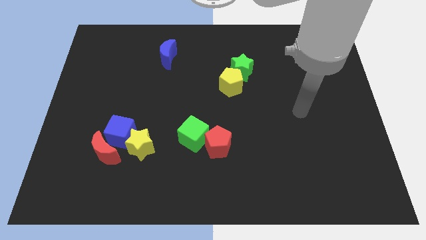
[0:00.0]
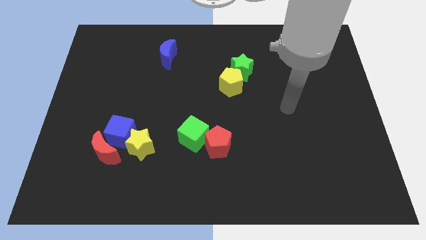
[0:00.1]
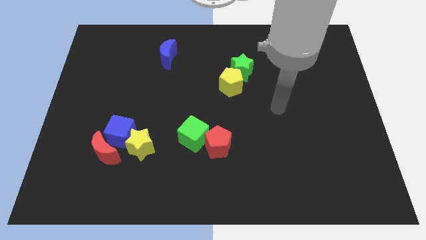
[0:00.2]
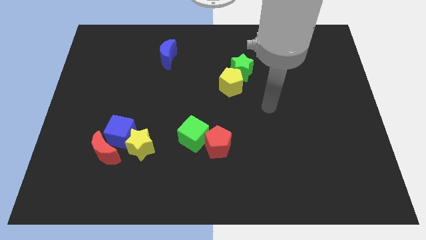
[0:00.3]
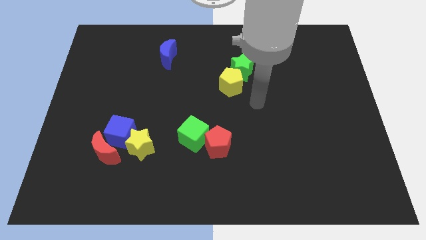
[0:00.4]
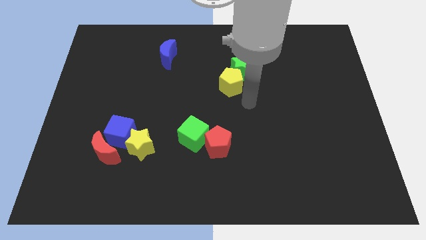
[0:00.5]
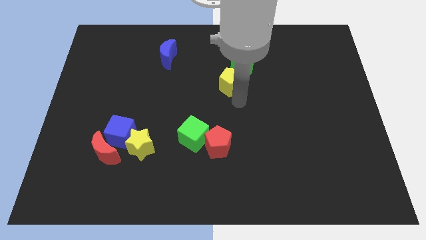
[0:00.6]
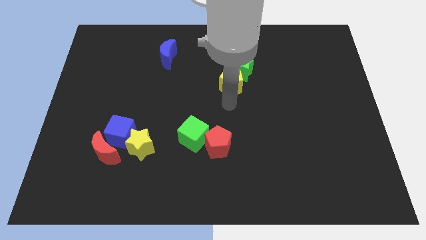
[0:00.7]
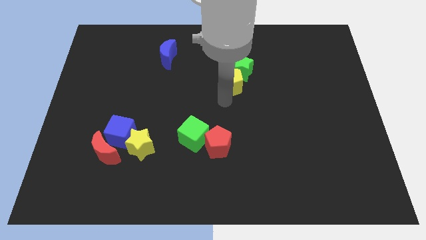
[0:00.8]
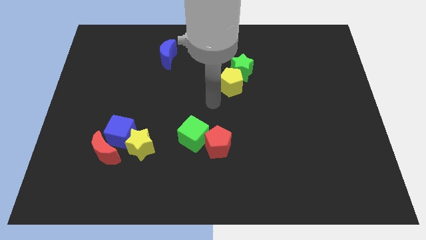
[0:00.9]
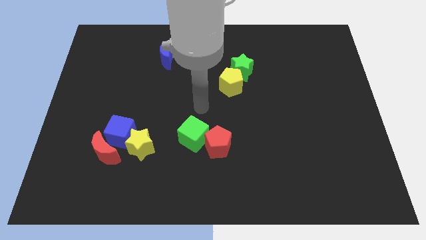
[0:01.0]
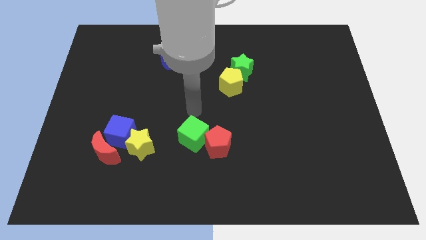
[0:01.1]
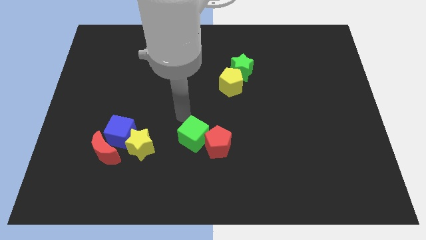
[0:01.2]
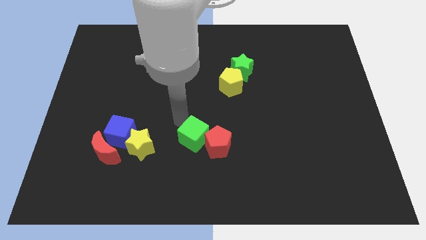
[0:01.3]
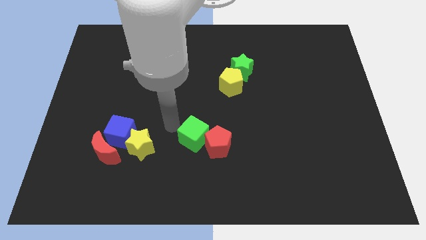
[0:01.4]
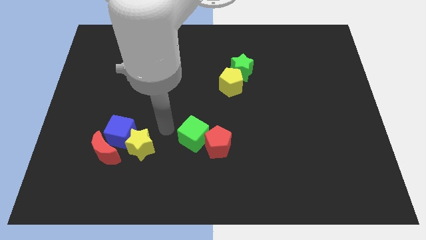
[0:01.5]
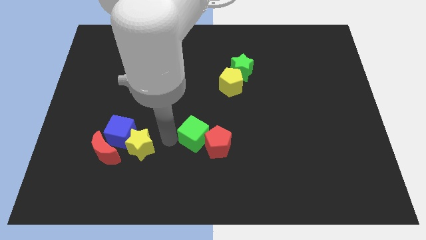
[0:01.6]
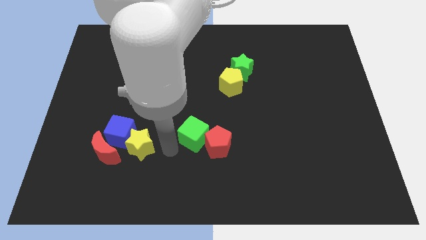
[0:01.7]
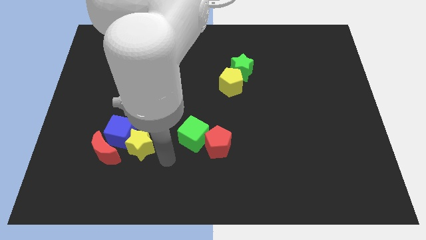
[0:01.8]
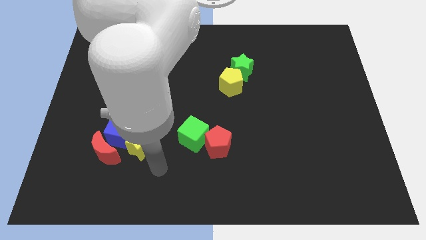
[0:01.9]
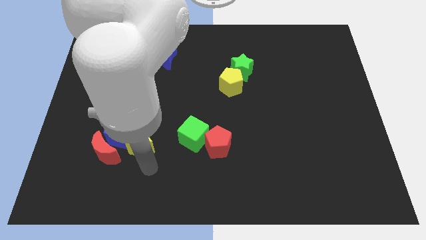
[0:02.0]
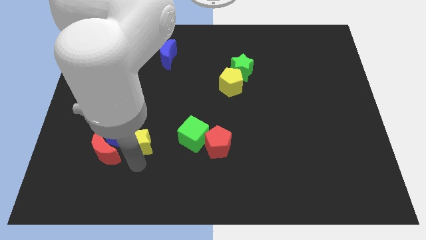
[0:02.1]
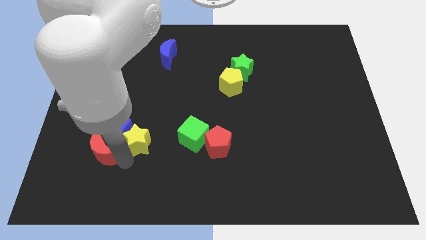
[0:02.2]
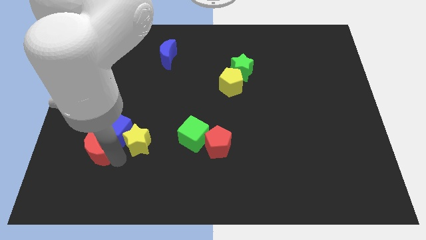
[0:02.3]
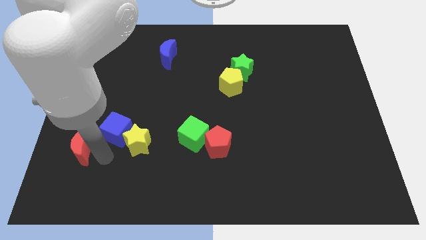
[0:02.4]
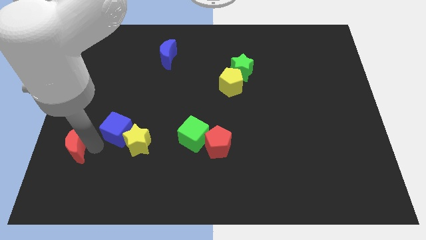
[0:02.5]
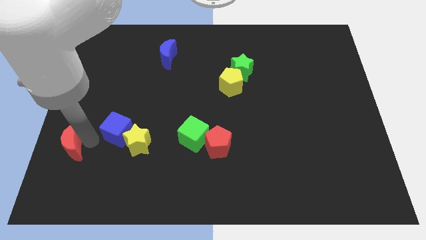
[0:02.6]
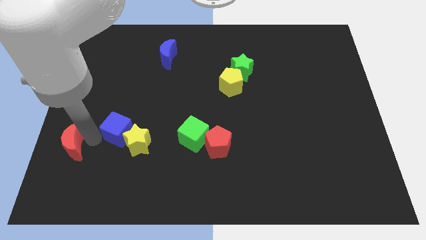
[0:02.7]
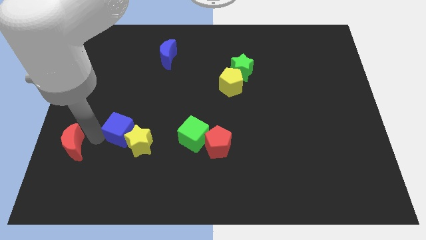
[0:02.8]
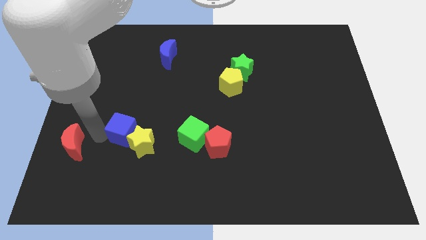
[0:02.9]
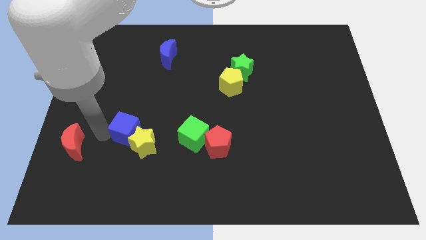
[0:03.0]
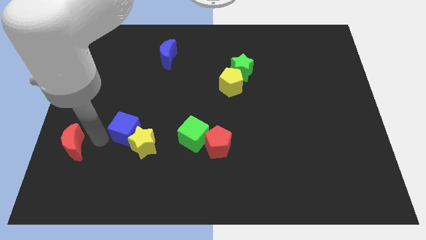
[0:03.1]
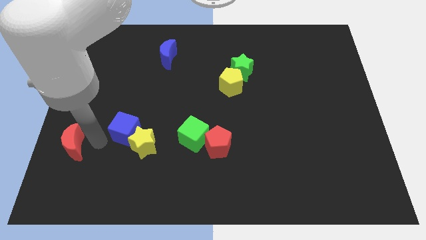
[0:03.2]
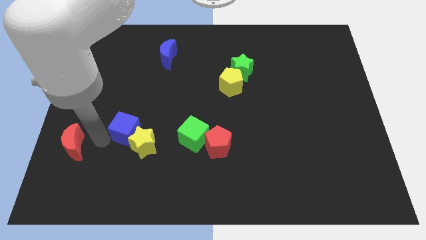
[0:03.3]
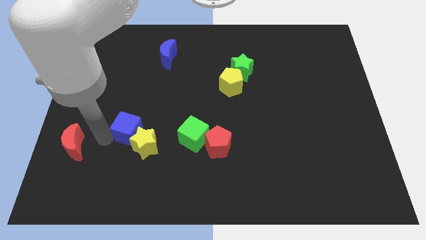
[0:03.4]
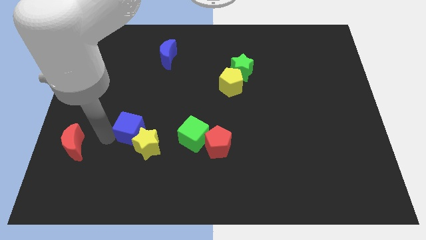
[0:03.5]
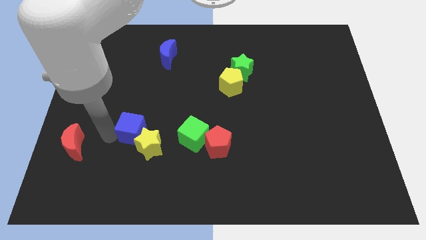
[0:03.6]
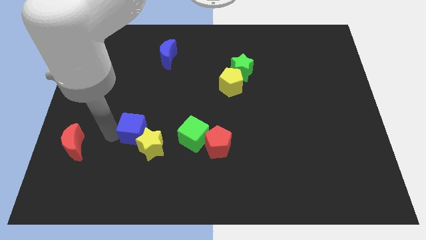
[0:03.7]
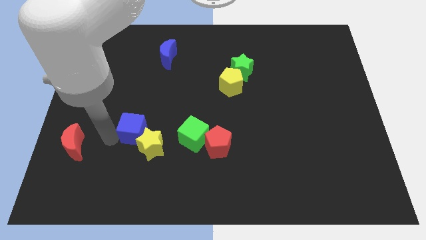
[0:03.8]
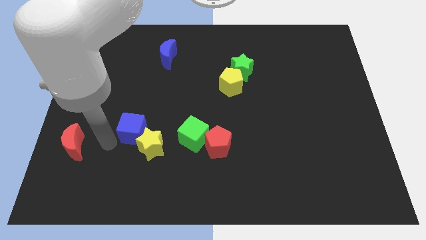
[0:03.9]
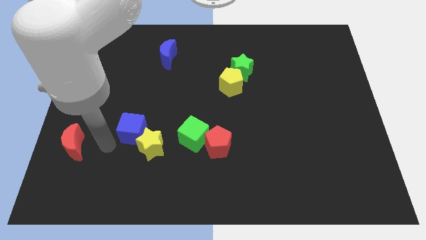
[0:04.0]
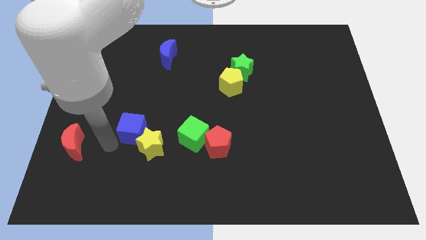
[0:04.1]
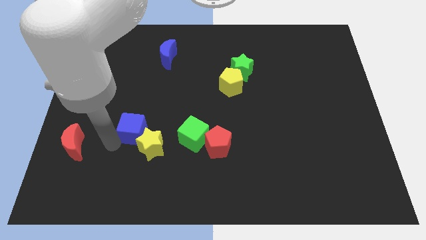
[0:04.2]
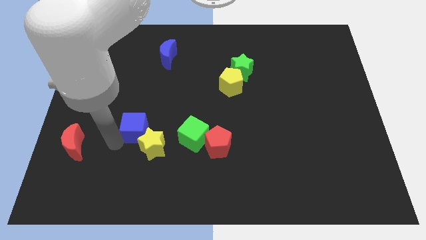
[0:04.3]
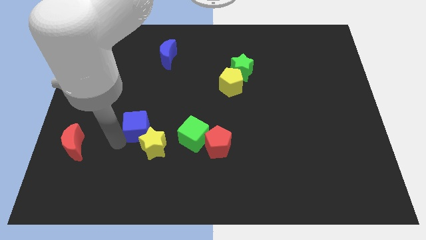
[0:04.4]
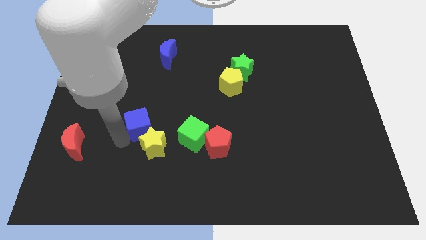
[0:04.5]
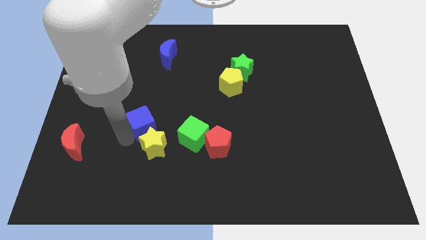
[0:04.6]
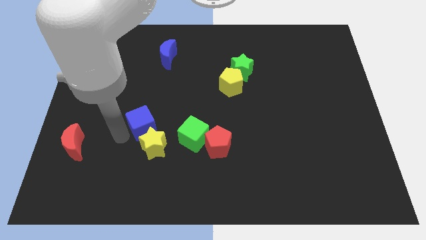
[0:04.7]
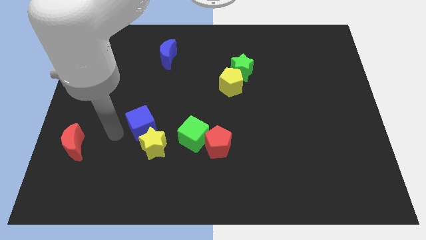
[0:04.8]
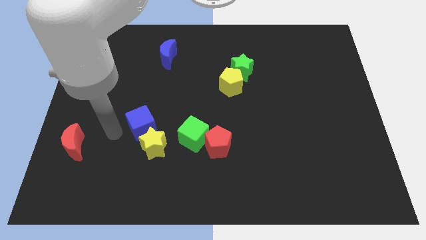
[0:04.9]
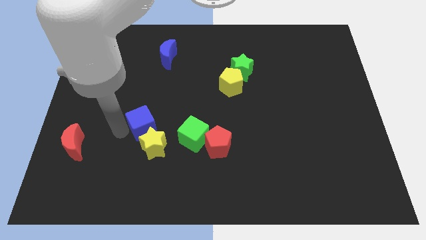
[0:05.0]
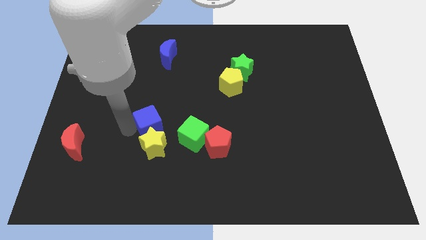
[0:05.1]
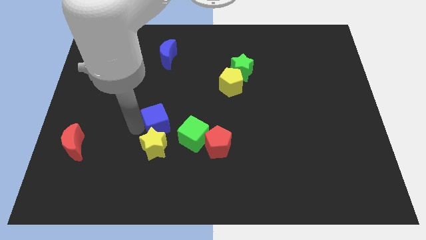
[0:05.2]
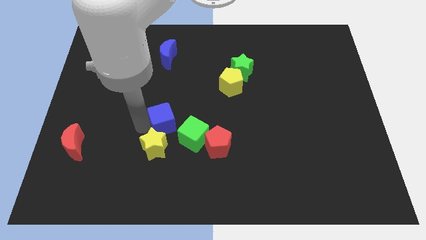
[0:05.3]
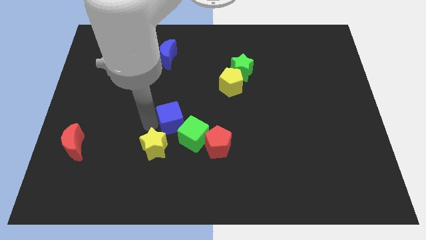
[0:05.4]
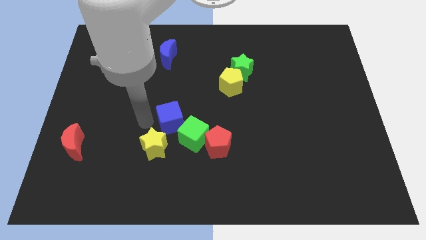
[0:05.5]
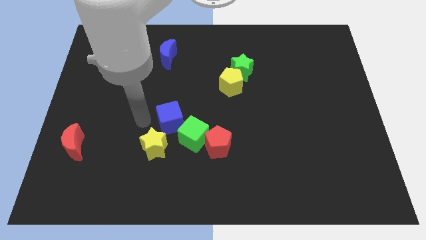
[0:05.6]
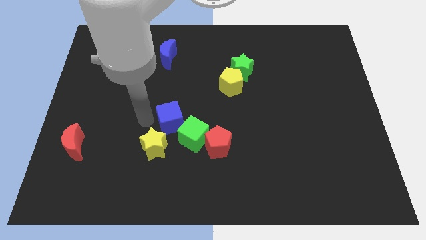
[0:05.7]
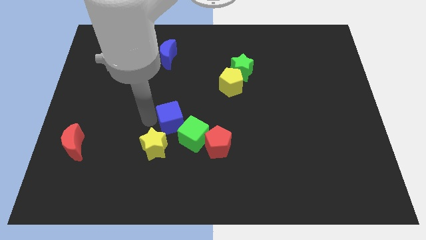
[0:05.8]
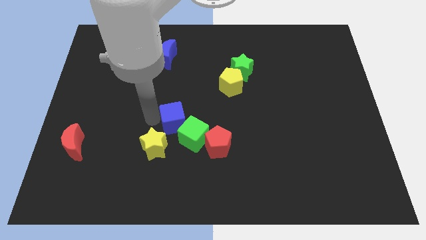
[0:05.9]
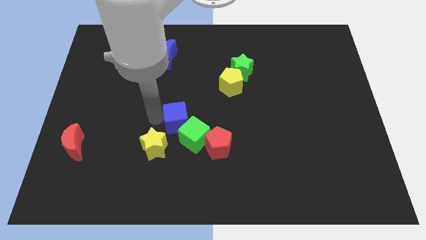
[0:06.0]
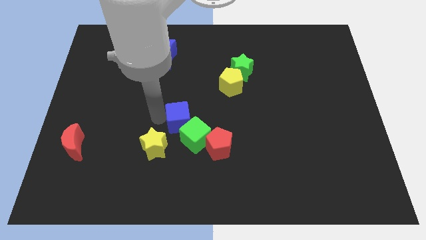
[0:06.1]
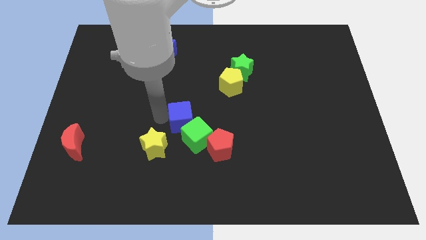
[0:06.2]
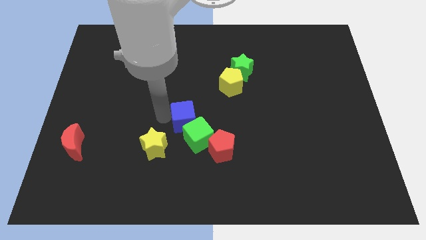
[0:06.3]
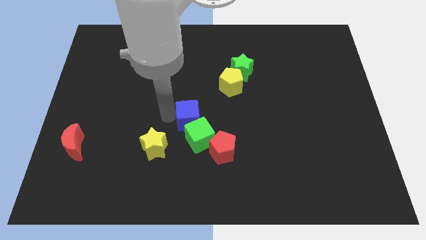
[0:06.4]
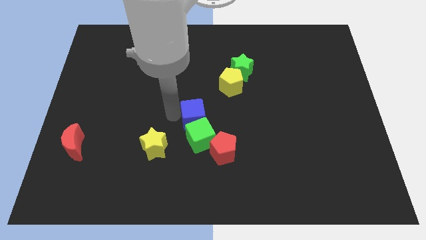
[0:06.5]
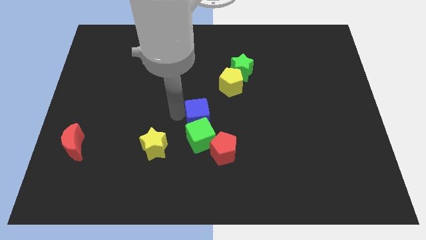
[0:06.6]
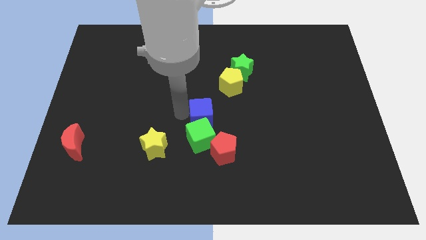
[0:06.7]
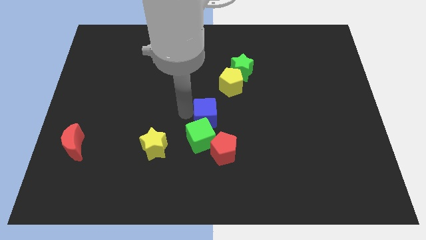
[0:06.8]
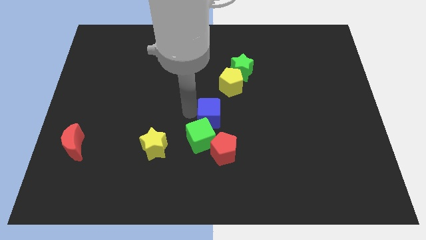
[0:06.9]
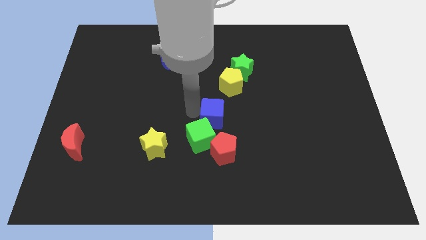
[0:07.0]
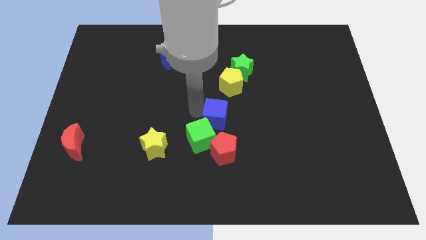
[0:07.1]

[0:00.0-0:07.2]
push the blue cube to the right

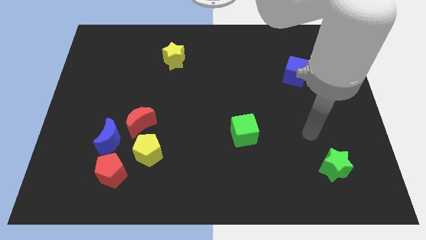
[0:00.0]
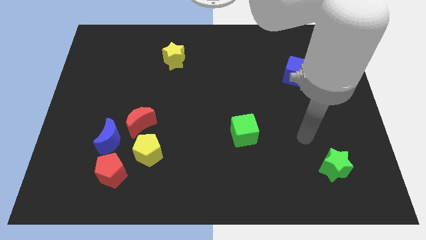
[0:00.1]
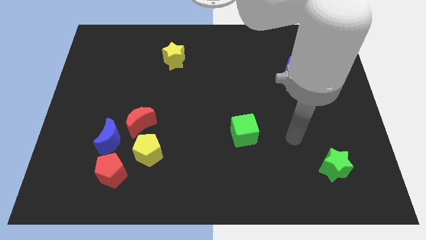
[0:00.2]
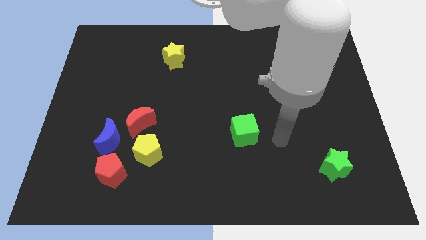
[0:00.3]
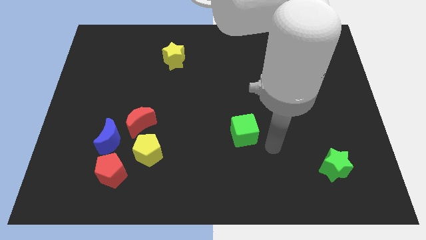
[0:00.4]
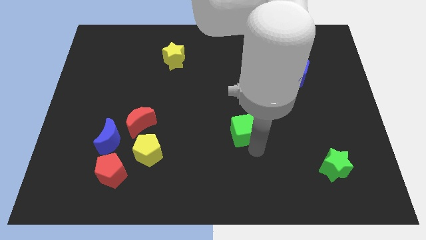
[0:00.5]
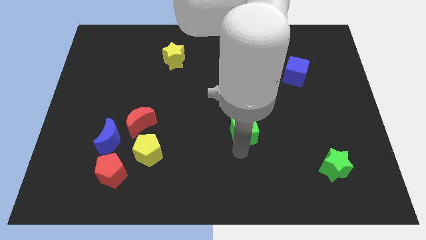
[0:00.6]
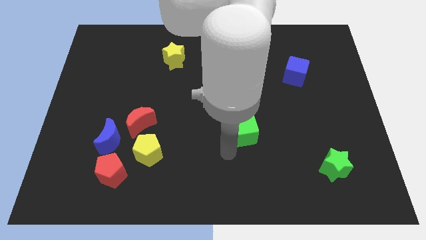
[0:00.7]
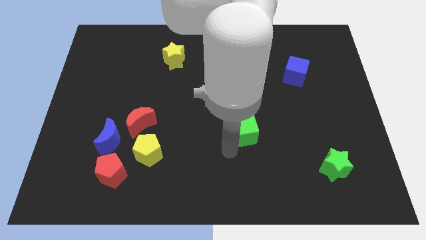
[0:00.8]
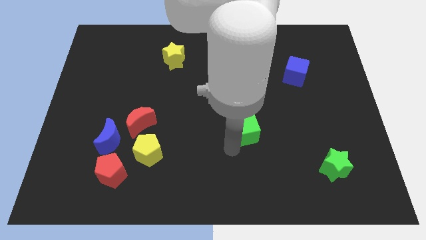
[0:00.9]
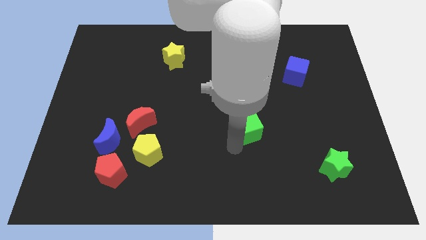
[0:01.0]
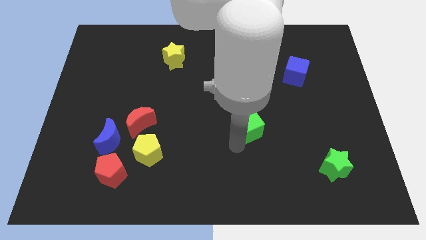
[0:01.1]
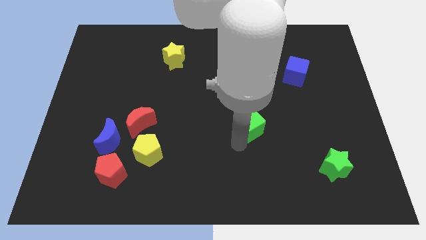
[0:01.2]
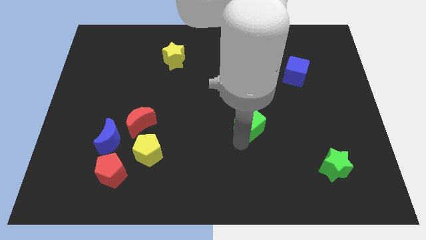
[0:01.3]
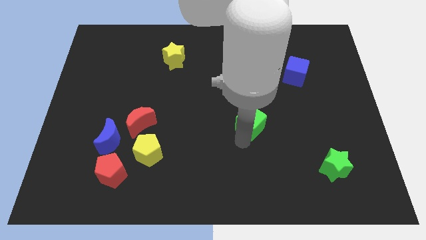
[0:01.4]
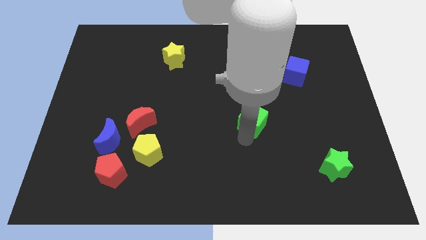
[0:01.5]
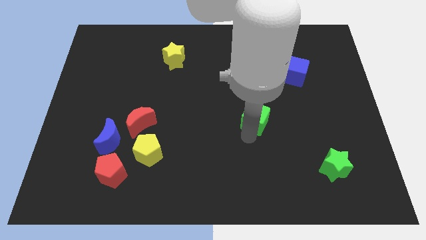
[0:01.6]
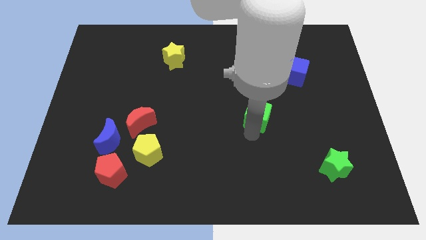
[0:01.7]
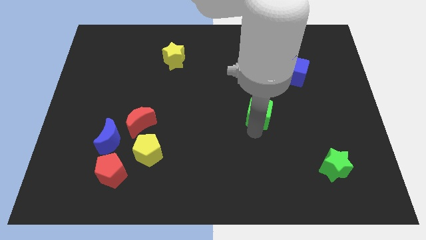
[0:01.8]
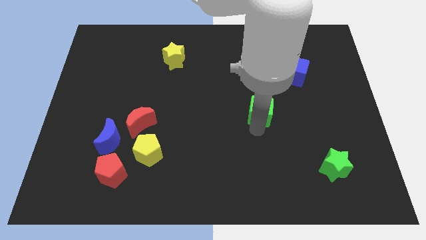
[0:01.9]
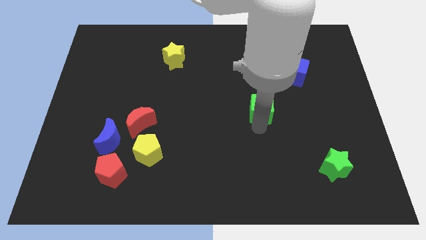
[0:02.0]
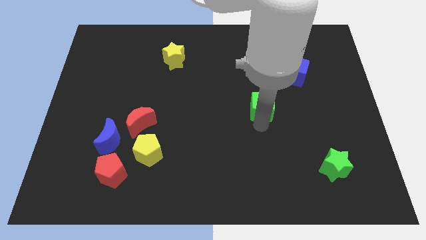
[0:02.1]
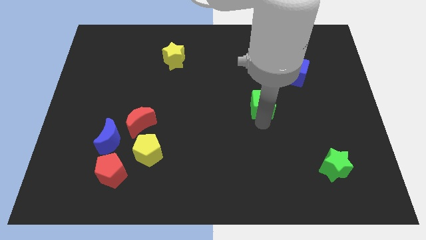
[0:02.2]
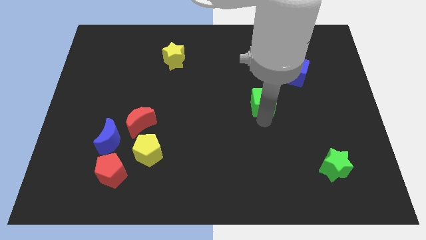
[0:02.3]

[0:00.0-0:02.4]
move the green cube a little upwards
